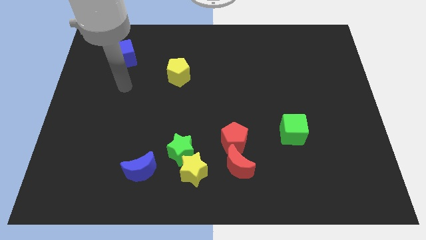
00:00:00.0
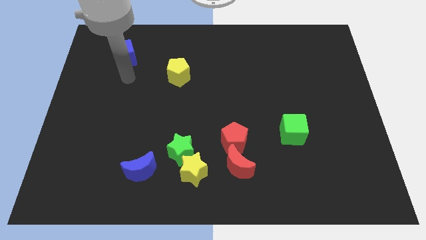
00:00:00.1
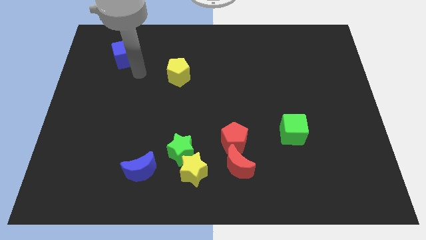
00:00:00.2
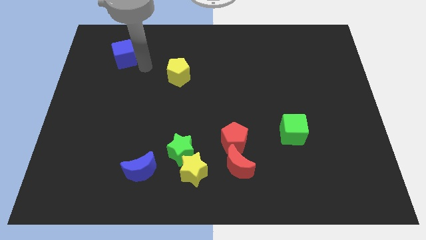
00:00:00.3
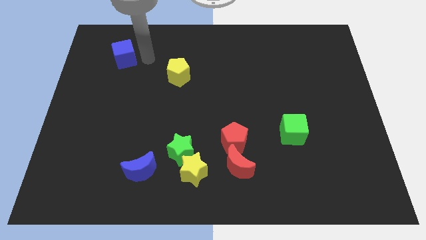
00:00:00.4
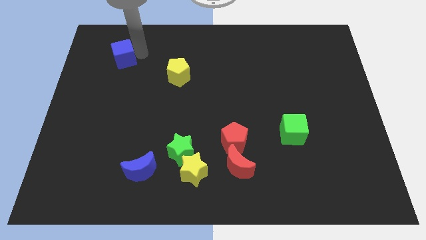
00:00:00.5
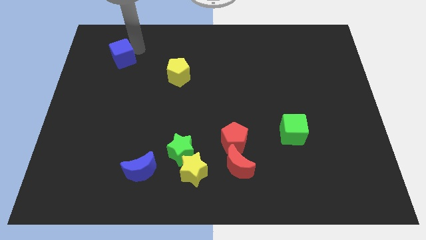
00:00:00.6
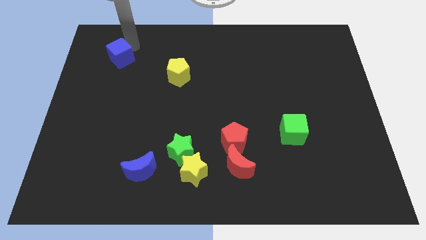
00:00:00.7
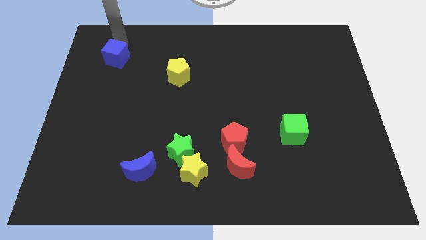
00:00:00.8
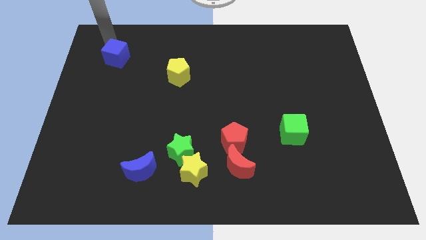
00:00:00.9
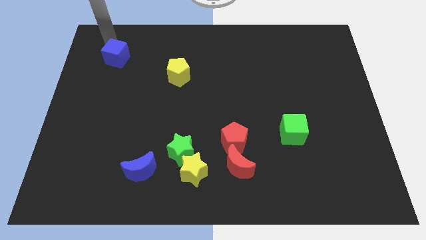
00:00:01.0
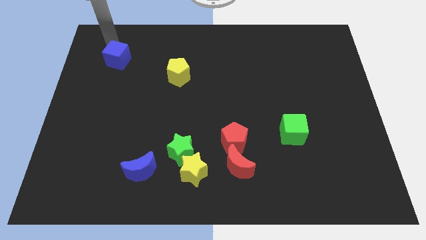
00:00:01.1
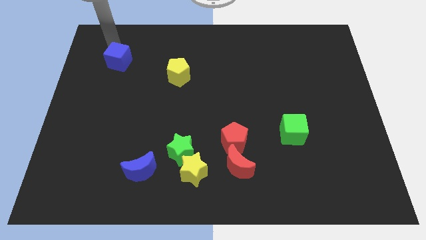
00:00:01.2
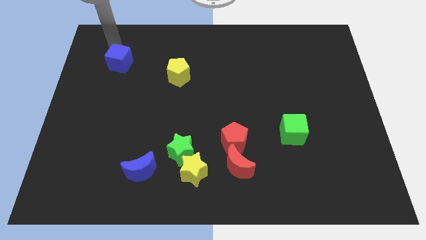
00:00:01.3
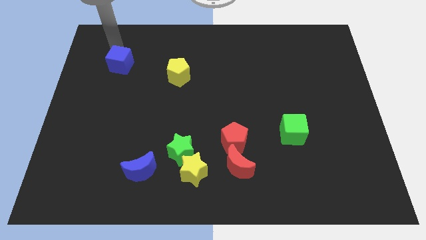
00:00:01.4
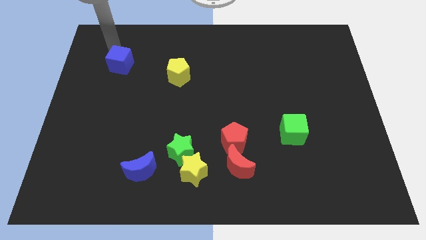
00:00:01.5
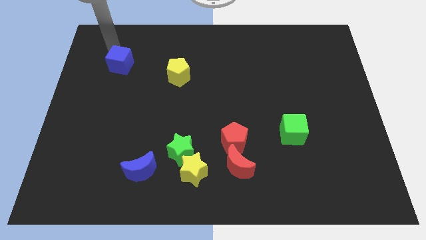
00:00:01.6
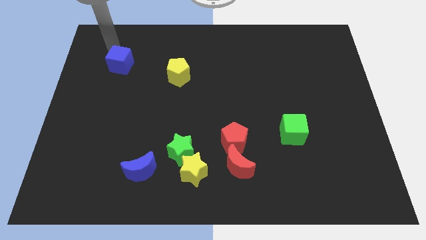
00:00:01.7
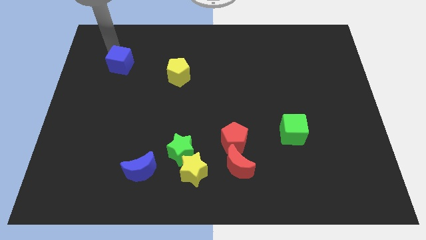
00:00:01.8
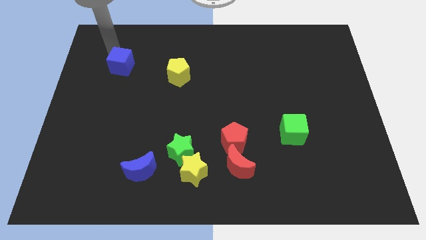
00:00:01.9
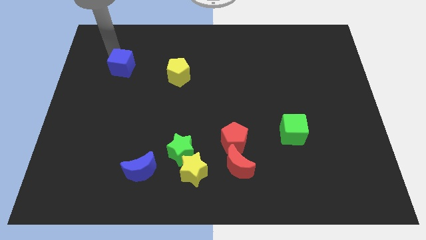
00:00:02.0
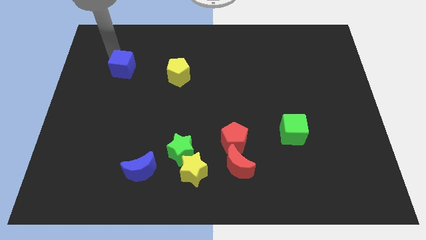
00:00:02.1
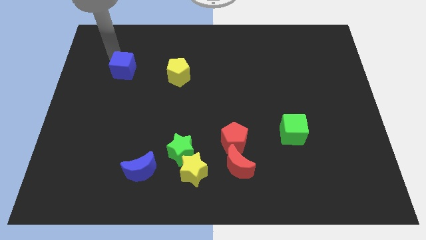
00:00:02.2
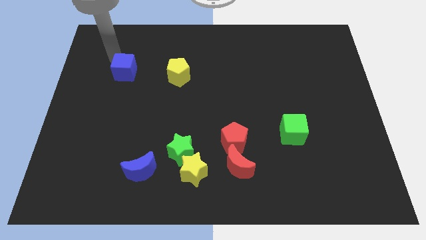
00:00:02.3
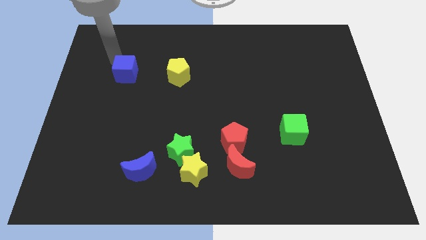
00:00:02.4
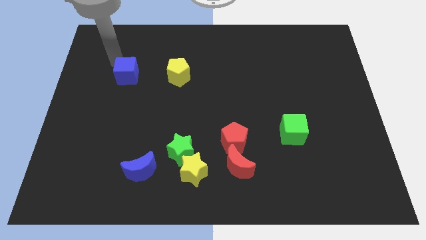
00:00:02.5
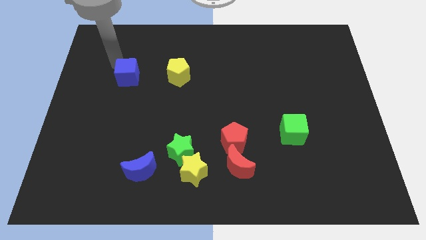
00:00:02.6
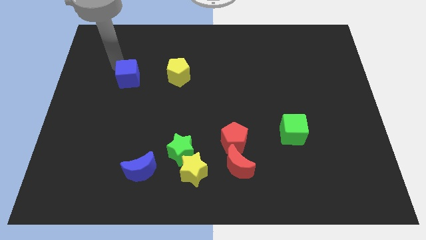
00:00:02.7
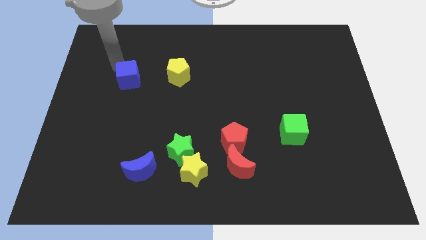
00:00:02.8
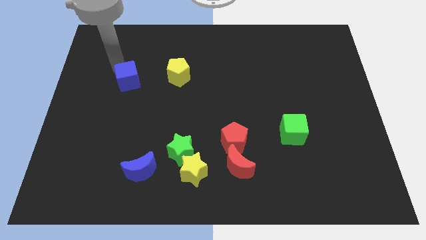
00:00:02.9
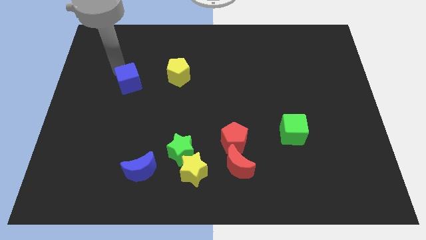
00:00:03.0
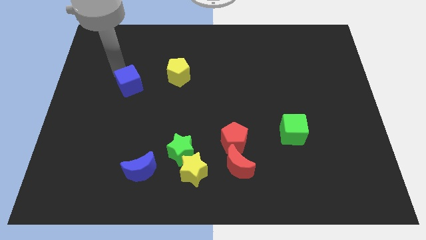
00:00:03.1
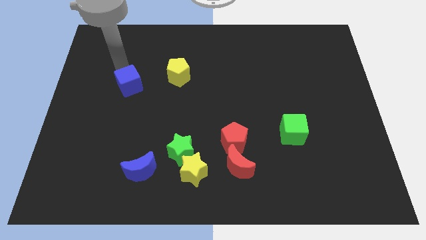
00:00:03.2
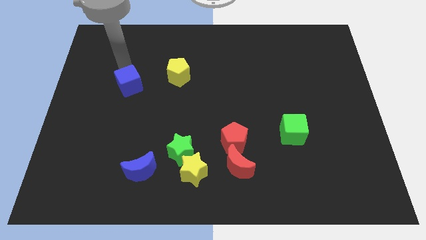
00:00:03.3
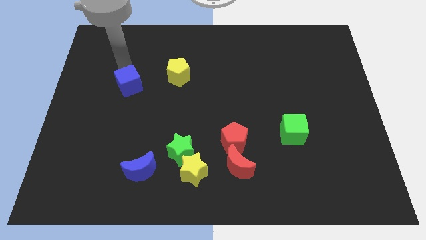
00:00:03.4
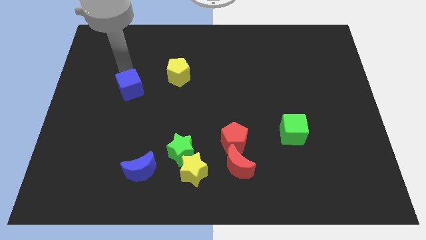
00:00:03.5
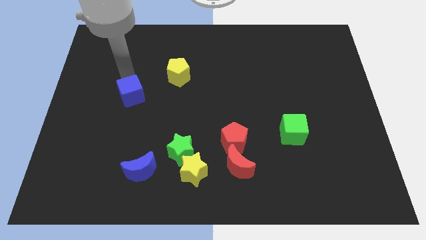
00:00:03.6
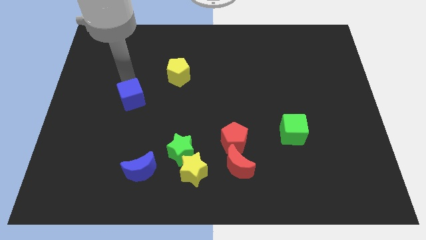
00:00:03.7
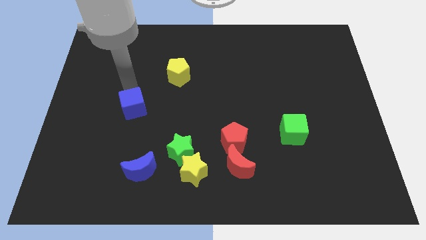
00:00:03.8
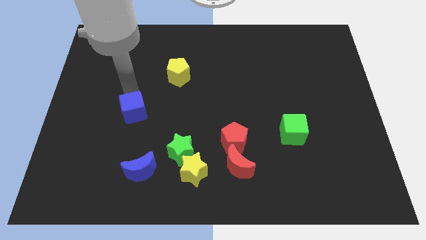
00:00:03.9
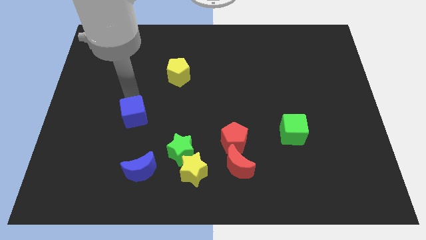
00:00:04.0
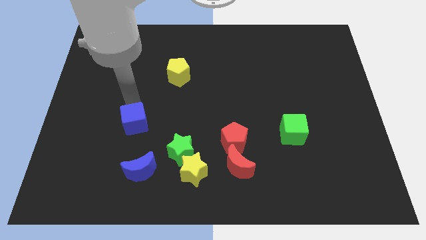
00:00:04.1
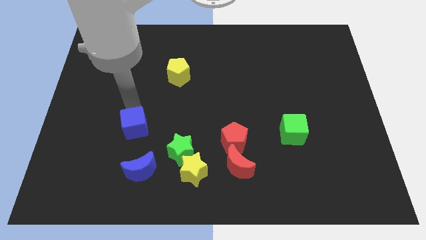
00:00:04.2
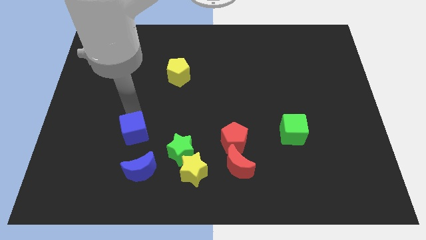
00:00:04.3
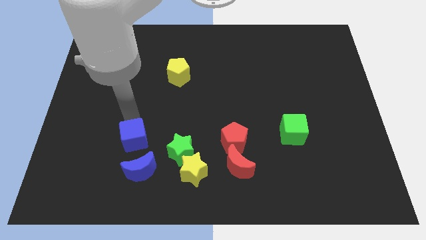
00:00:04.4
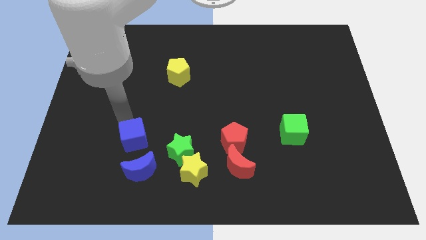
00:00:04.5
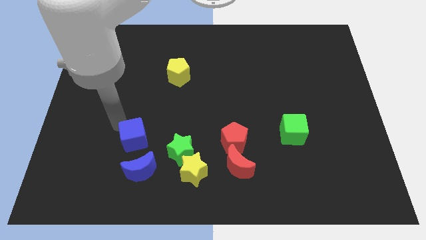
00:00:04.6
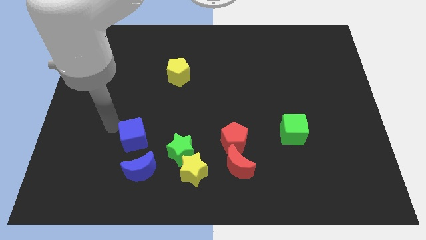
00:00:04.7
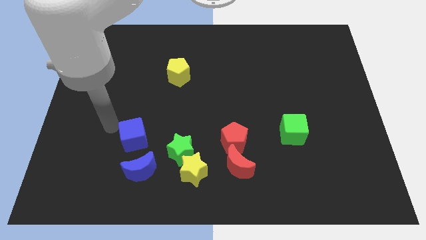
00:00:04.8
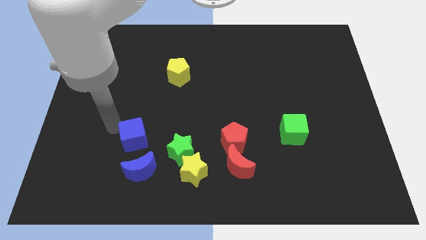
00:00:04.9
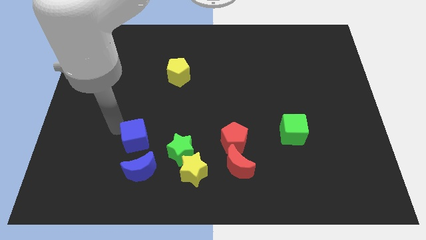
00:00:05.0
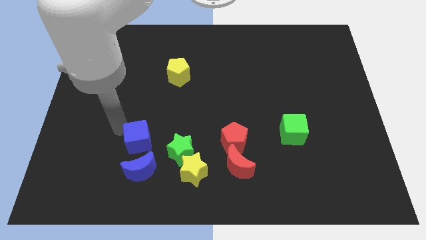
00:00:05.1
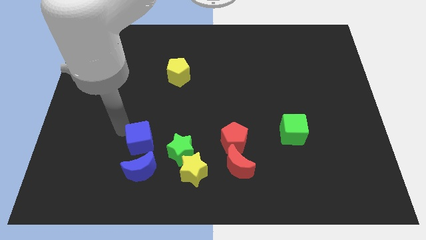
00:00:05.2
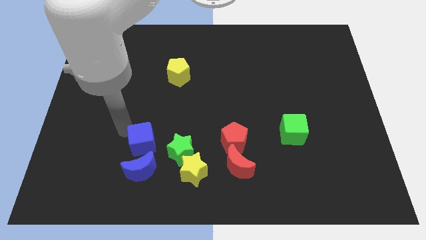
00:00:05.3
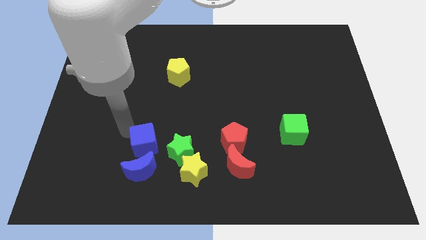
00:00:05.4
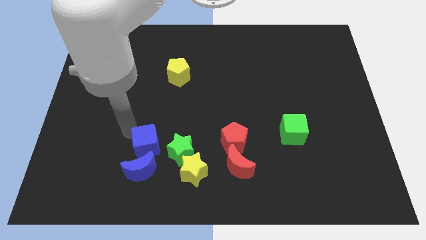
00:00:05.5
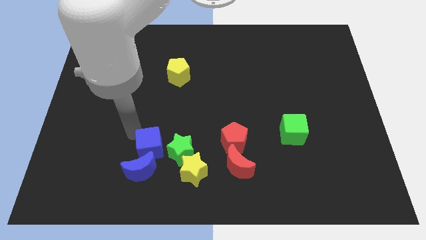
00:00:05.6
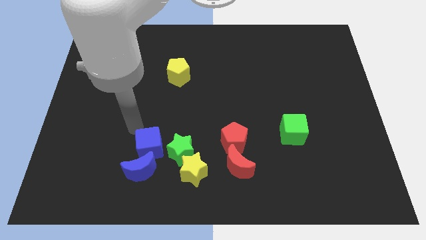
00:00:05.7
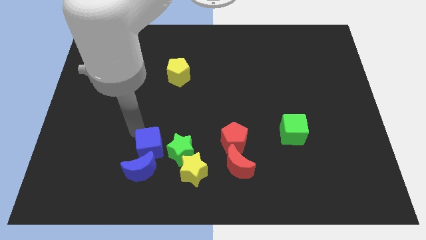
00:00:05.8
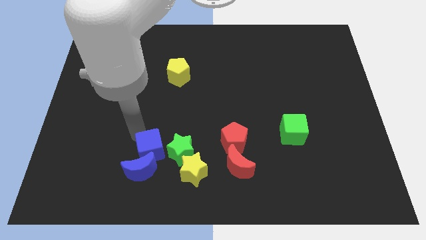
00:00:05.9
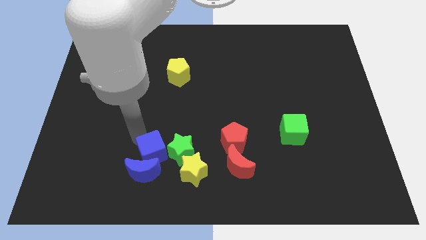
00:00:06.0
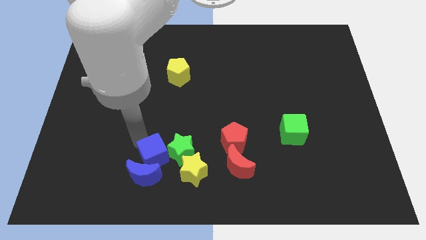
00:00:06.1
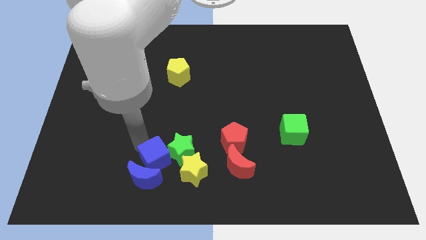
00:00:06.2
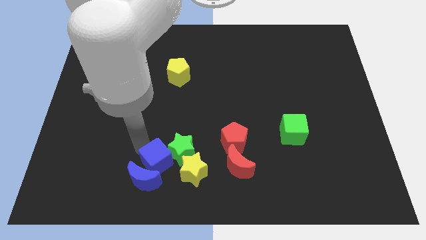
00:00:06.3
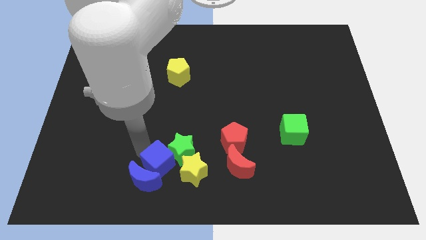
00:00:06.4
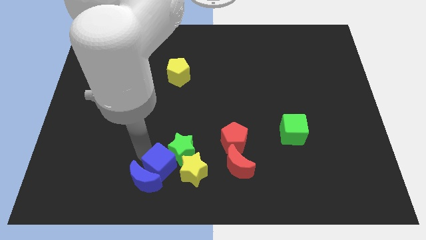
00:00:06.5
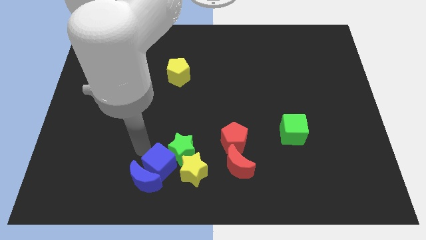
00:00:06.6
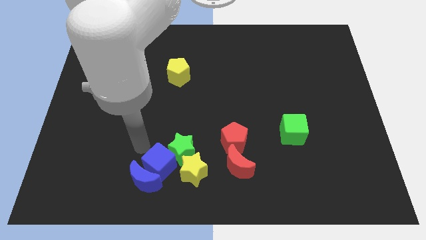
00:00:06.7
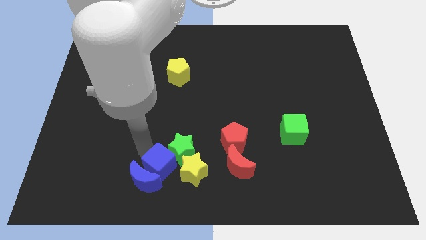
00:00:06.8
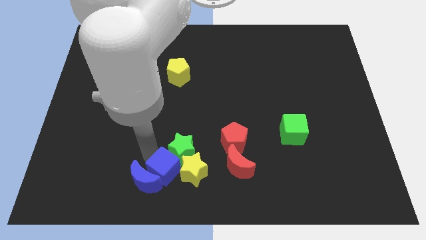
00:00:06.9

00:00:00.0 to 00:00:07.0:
put the blue cube to the bottom side

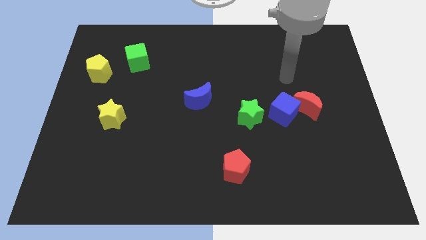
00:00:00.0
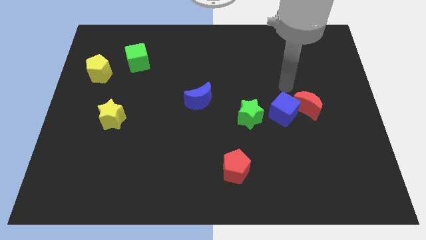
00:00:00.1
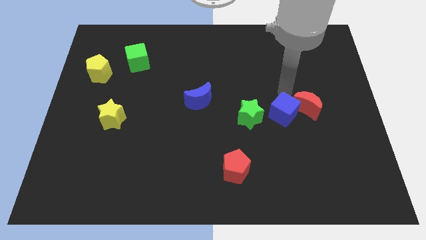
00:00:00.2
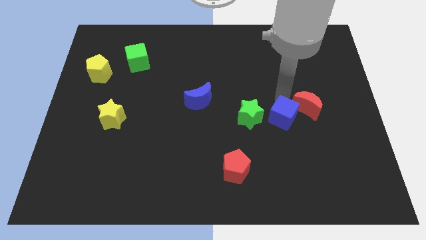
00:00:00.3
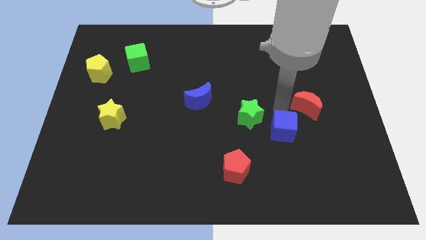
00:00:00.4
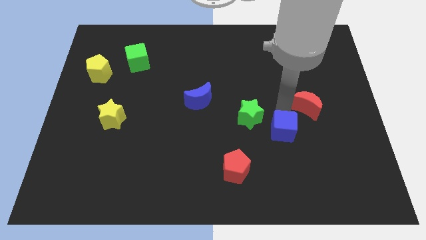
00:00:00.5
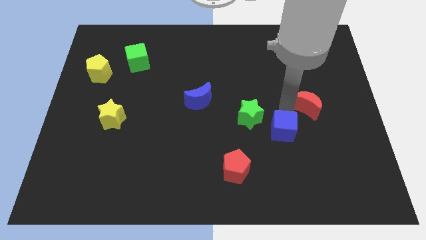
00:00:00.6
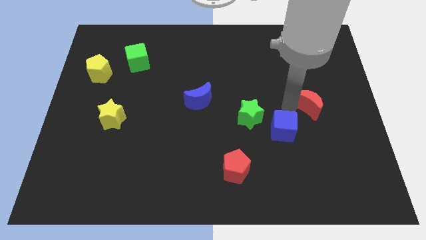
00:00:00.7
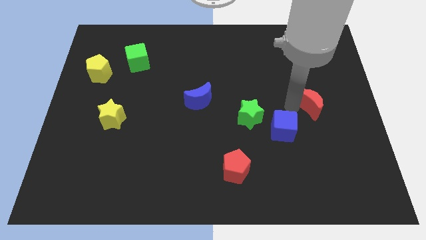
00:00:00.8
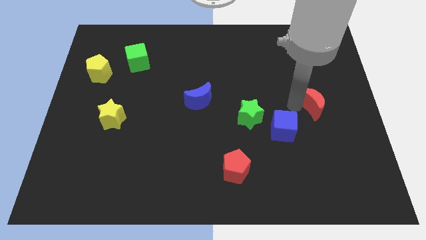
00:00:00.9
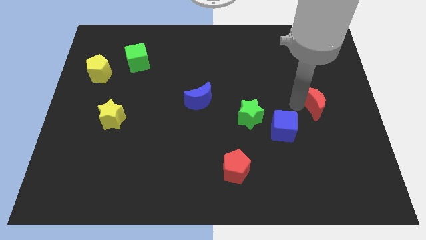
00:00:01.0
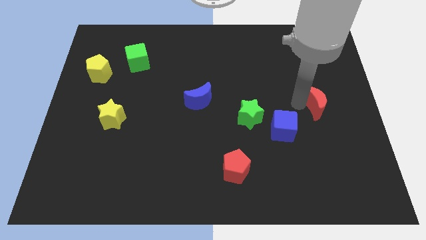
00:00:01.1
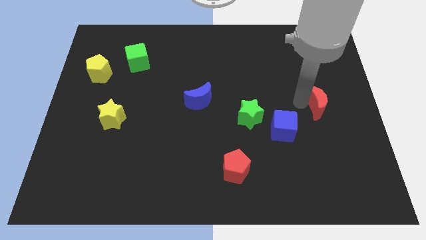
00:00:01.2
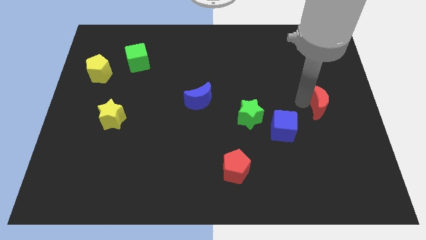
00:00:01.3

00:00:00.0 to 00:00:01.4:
slide the red moon to the center right
